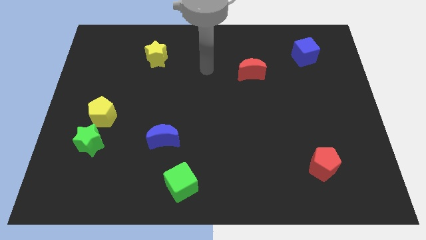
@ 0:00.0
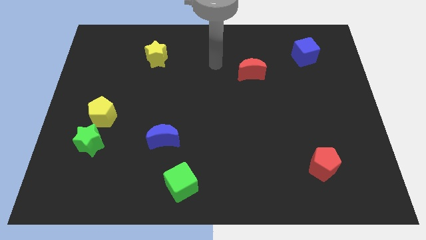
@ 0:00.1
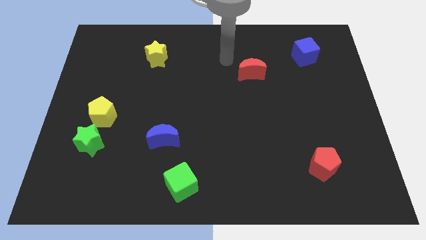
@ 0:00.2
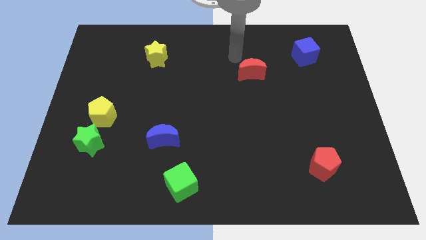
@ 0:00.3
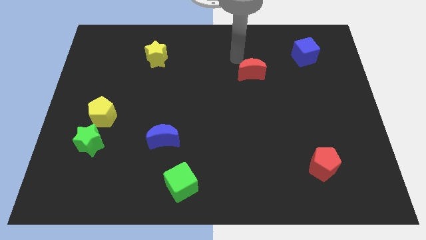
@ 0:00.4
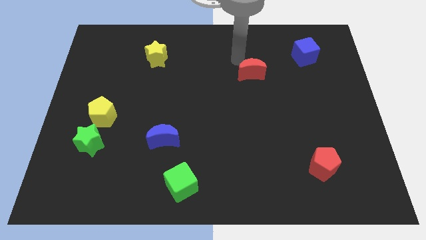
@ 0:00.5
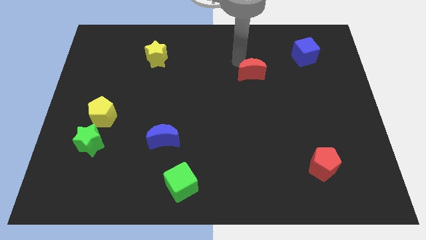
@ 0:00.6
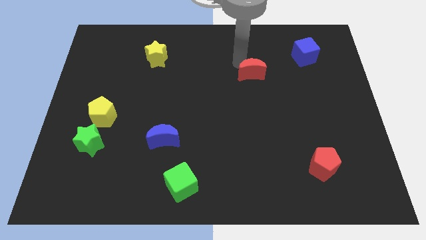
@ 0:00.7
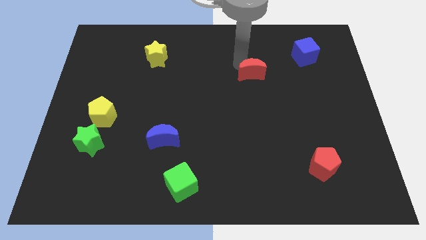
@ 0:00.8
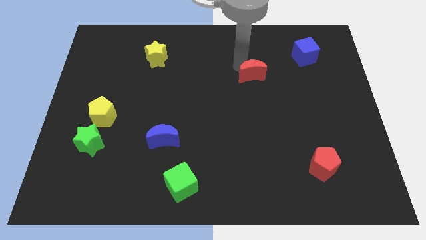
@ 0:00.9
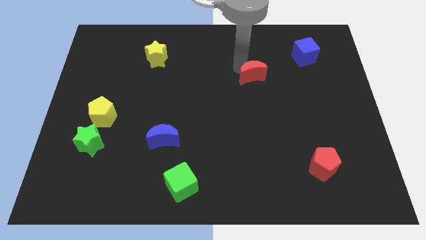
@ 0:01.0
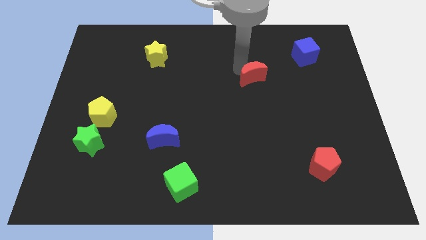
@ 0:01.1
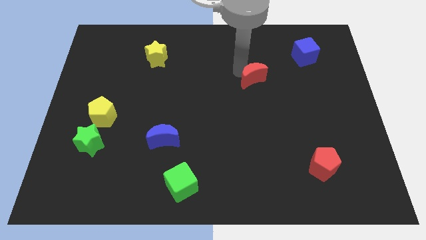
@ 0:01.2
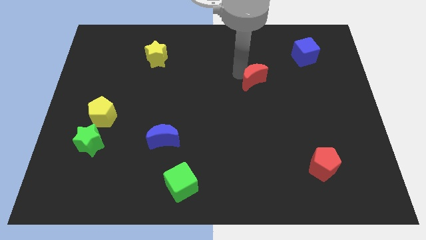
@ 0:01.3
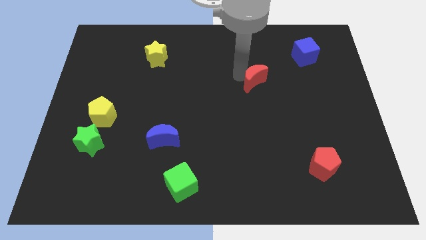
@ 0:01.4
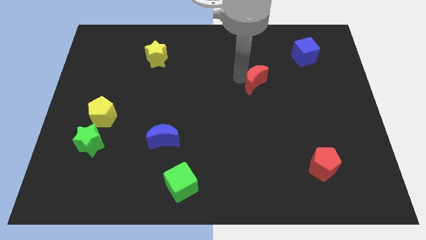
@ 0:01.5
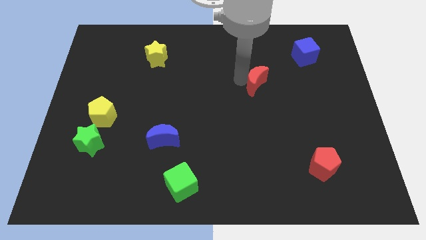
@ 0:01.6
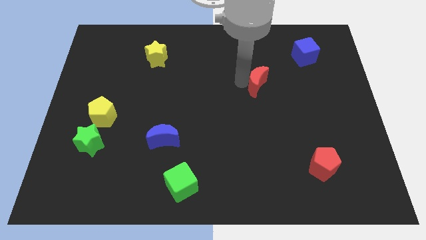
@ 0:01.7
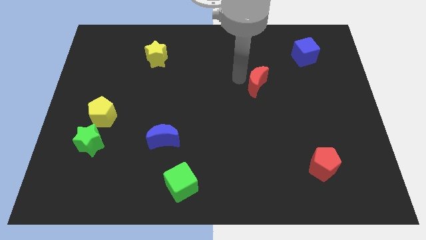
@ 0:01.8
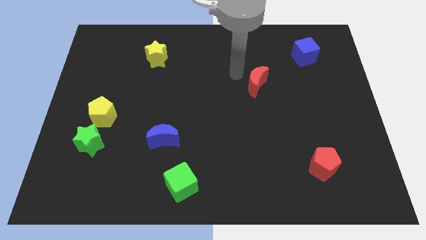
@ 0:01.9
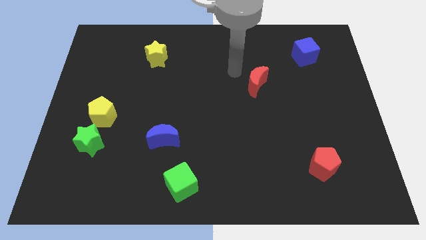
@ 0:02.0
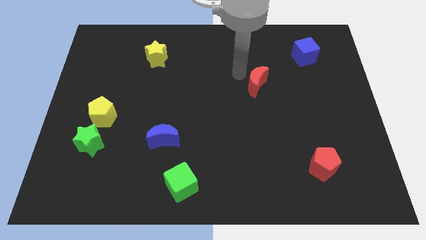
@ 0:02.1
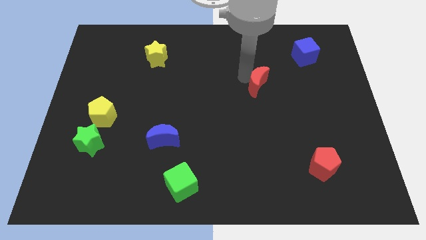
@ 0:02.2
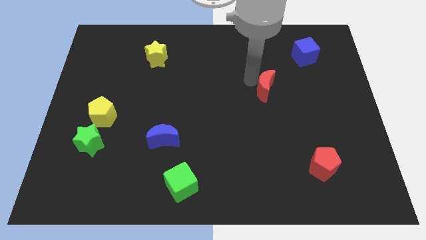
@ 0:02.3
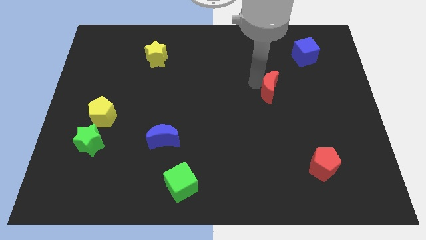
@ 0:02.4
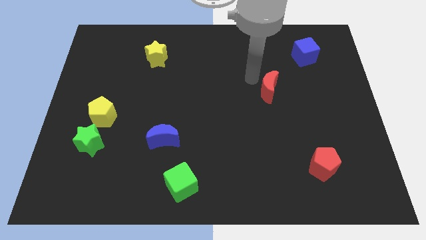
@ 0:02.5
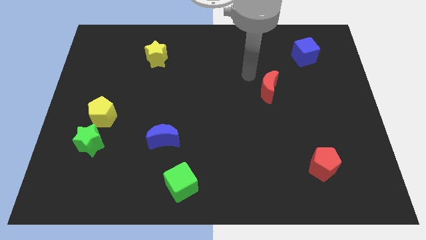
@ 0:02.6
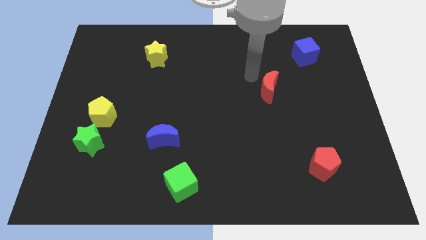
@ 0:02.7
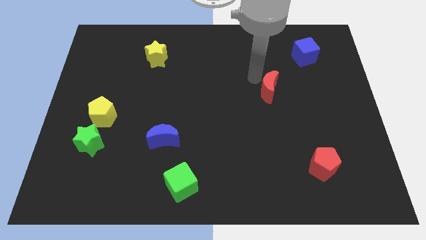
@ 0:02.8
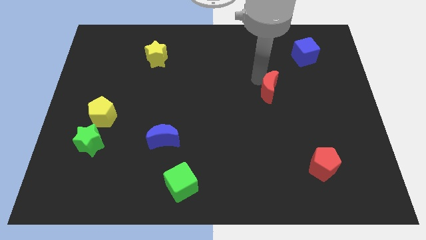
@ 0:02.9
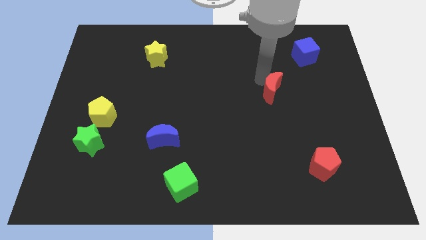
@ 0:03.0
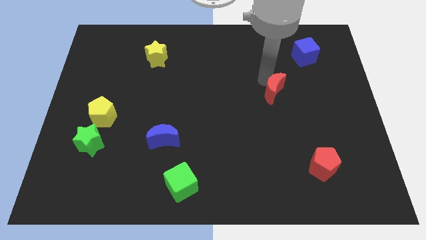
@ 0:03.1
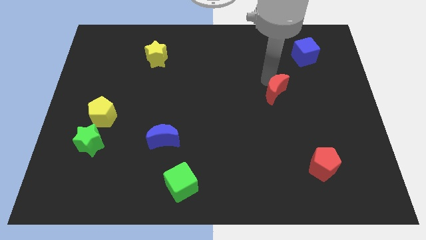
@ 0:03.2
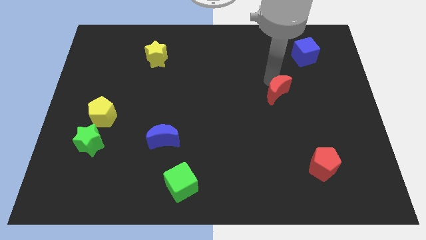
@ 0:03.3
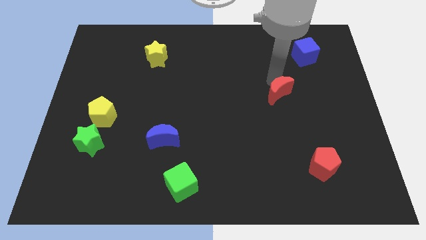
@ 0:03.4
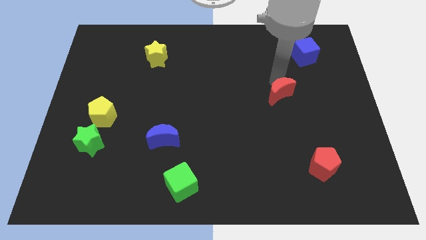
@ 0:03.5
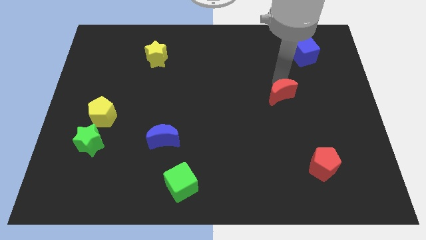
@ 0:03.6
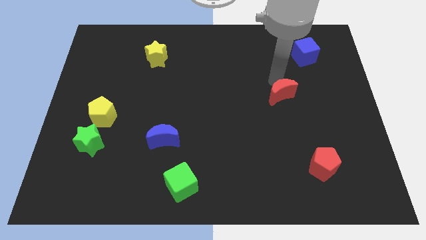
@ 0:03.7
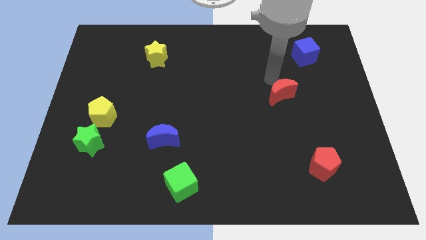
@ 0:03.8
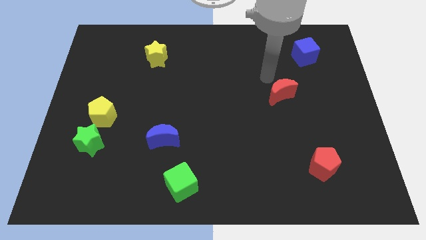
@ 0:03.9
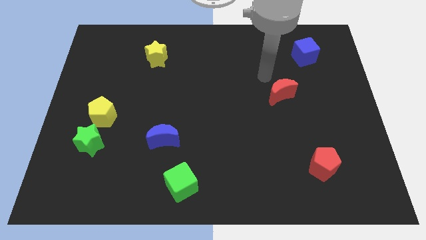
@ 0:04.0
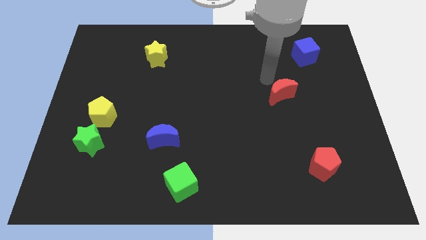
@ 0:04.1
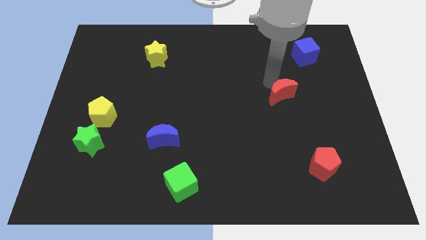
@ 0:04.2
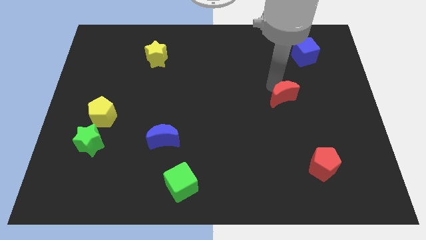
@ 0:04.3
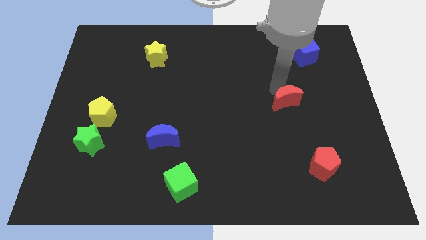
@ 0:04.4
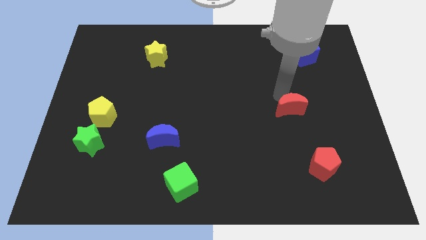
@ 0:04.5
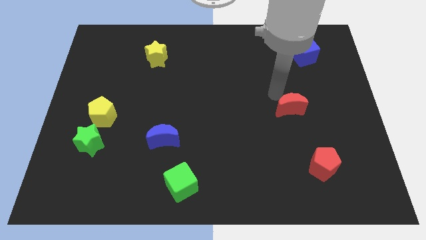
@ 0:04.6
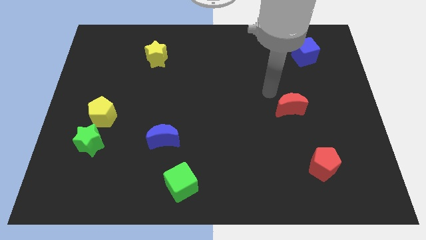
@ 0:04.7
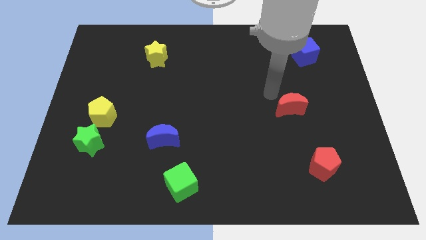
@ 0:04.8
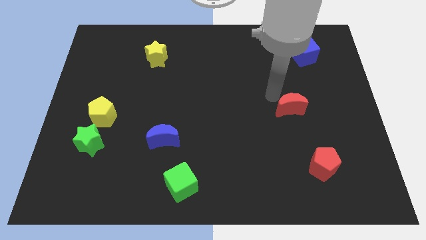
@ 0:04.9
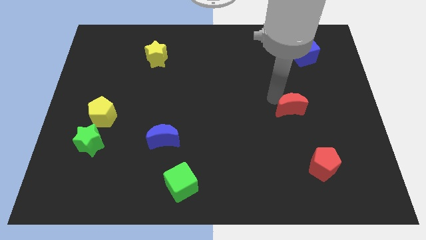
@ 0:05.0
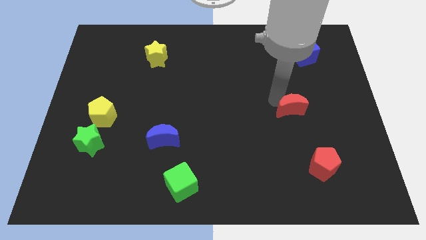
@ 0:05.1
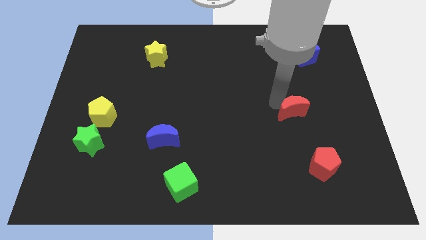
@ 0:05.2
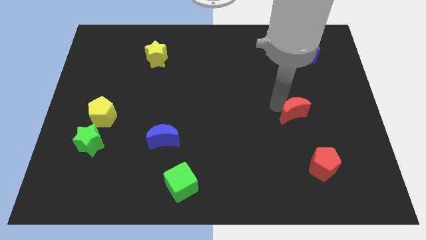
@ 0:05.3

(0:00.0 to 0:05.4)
push the red moon to the top side of the red pentagon

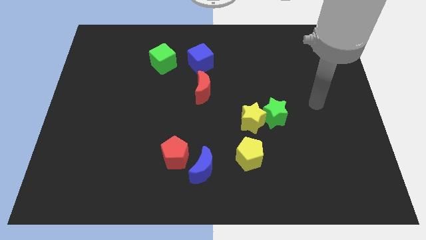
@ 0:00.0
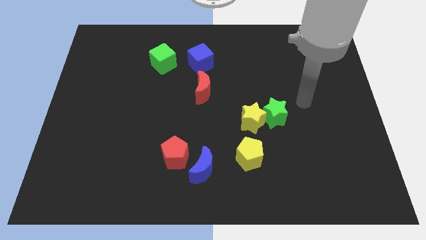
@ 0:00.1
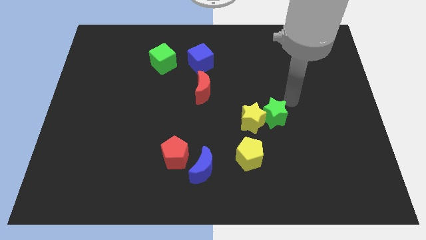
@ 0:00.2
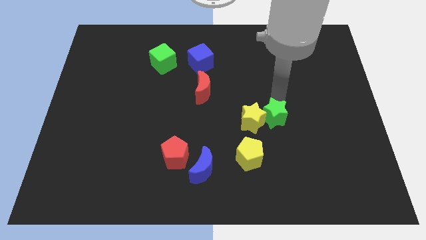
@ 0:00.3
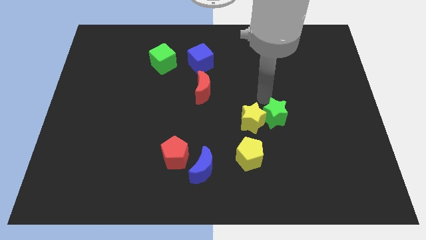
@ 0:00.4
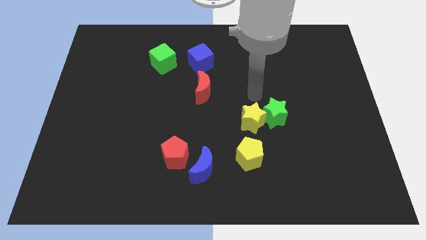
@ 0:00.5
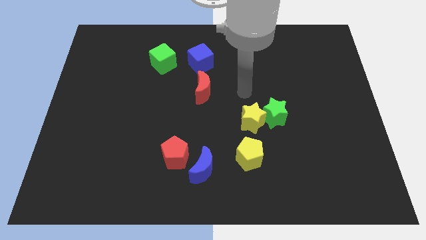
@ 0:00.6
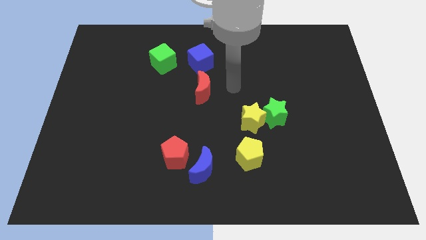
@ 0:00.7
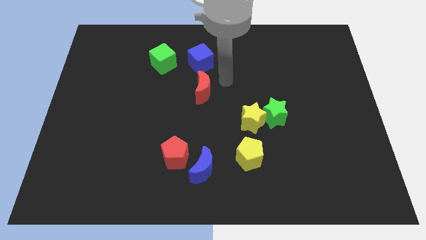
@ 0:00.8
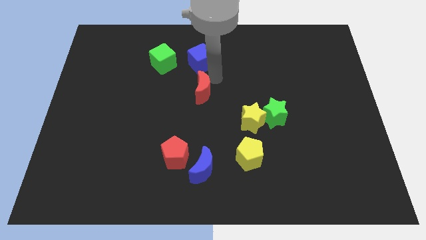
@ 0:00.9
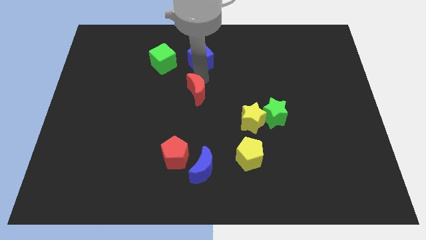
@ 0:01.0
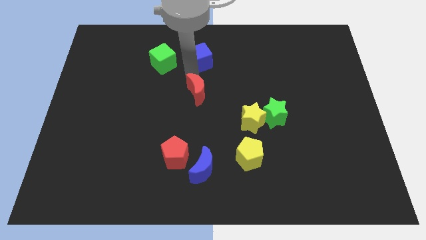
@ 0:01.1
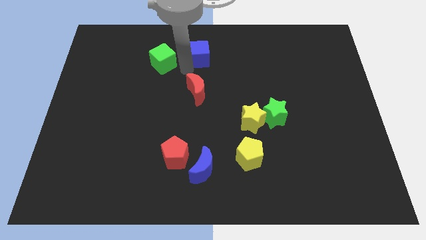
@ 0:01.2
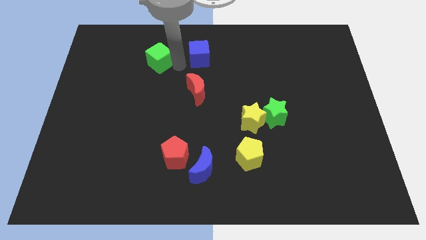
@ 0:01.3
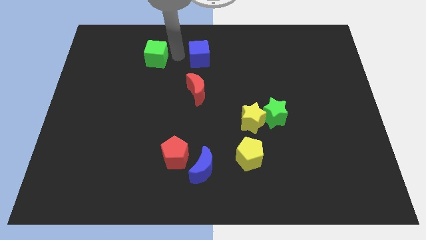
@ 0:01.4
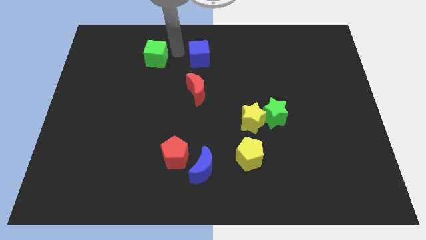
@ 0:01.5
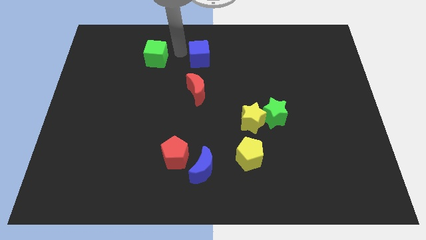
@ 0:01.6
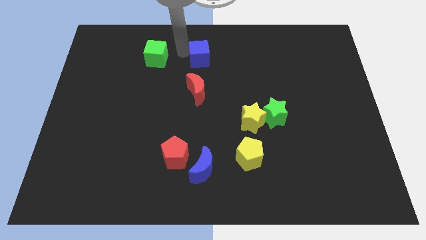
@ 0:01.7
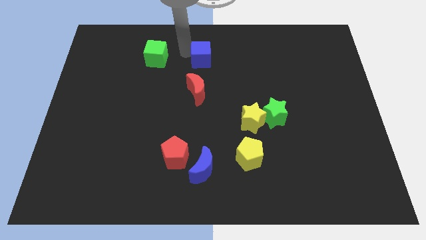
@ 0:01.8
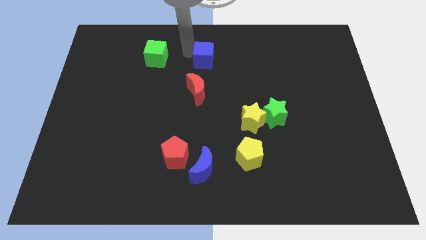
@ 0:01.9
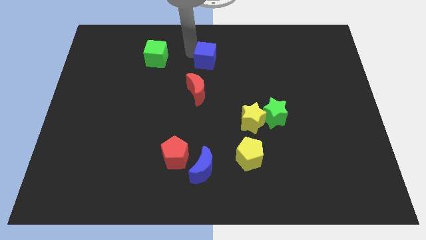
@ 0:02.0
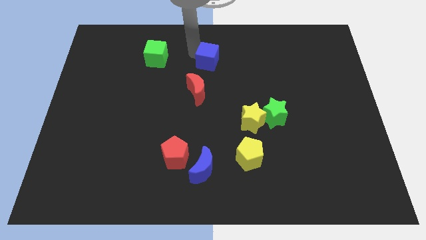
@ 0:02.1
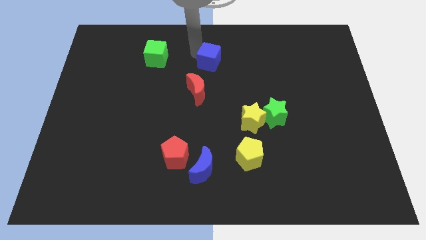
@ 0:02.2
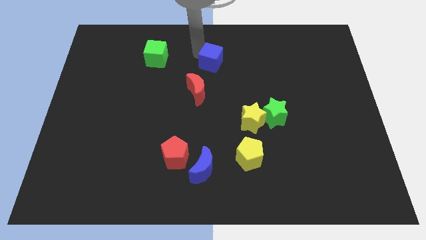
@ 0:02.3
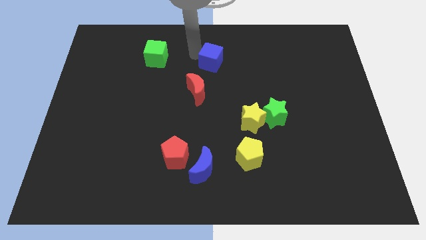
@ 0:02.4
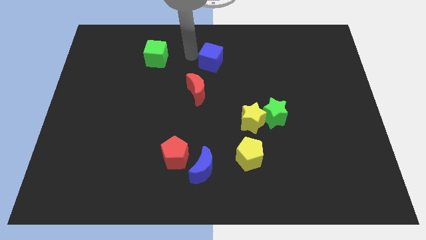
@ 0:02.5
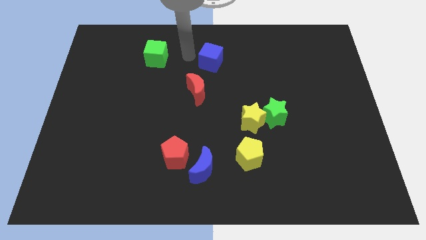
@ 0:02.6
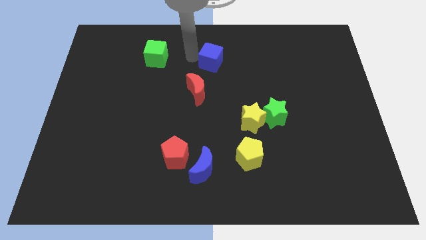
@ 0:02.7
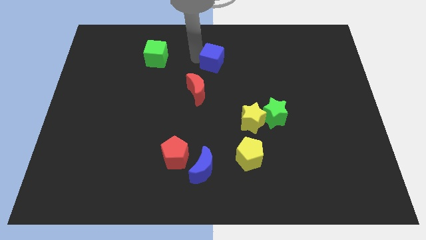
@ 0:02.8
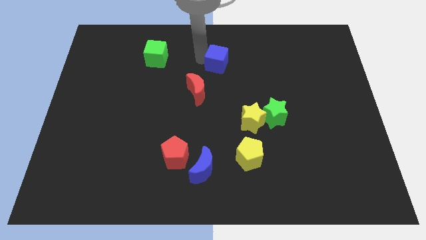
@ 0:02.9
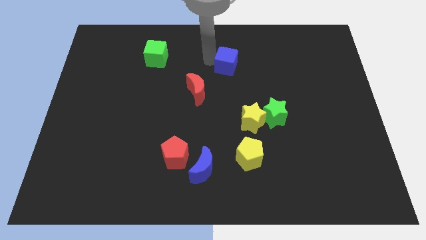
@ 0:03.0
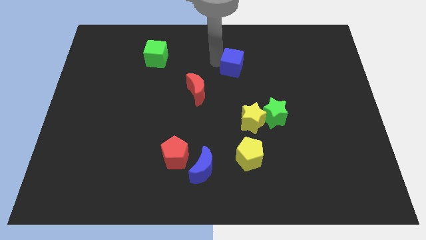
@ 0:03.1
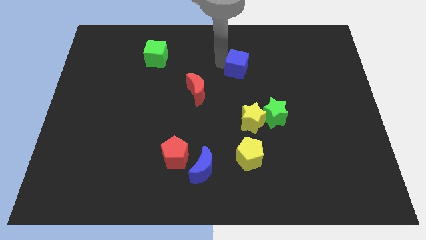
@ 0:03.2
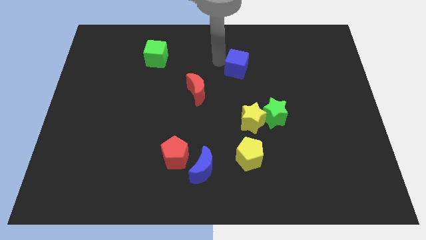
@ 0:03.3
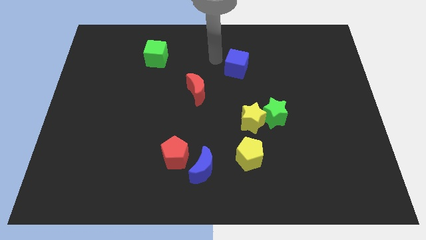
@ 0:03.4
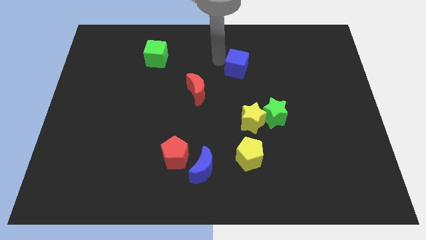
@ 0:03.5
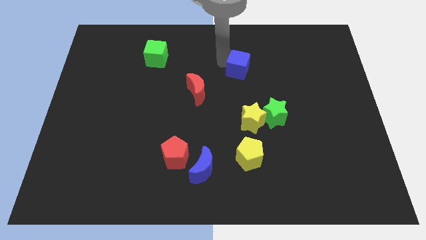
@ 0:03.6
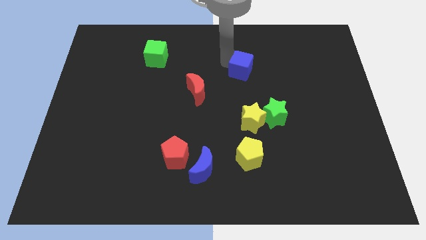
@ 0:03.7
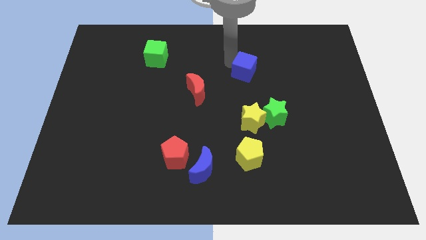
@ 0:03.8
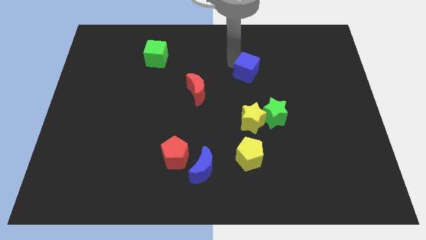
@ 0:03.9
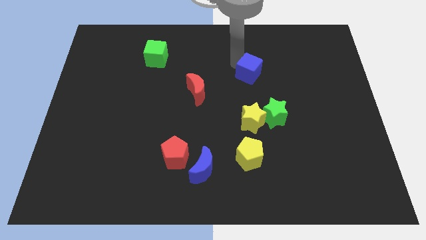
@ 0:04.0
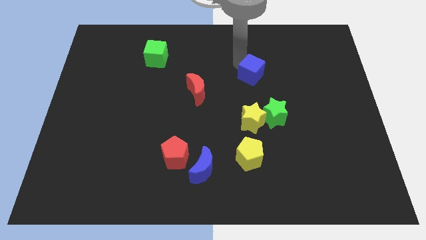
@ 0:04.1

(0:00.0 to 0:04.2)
slide the blue cube to the top of the green star
